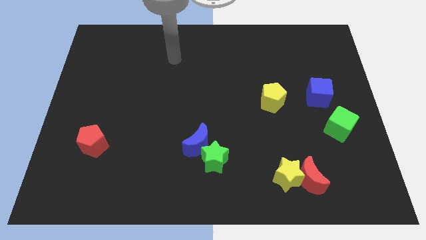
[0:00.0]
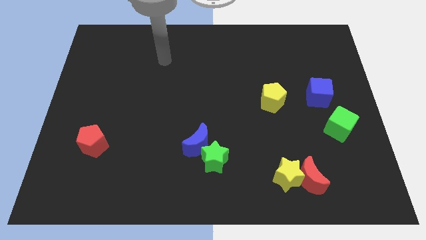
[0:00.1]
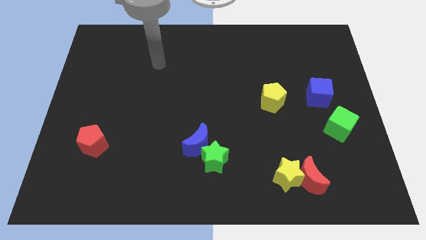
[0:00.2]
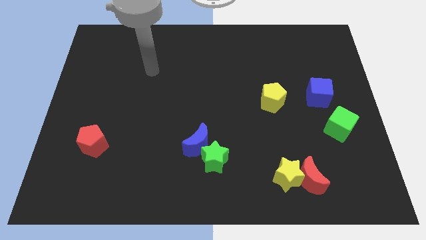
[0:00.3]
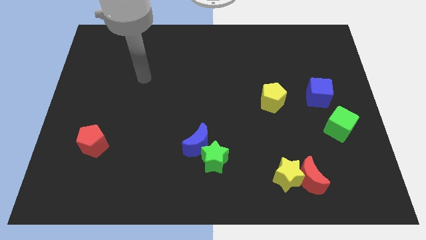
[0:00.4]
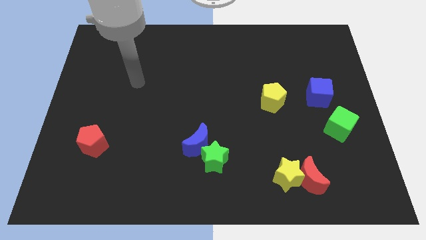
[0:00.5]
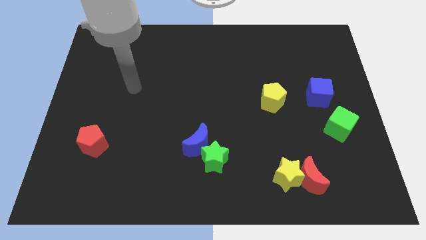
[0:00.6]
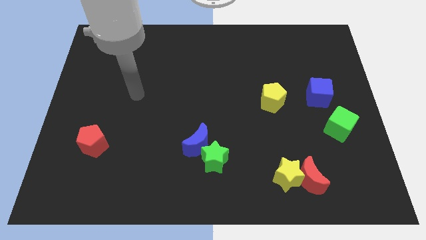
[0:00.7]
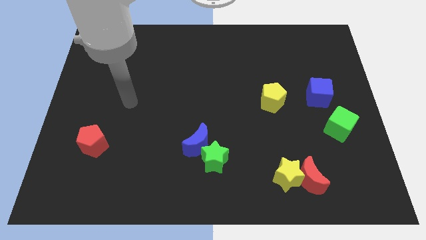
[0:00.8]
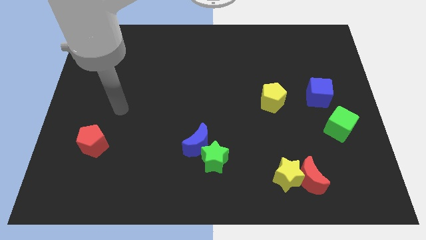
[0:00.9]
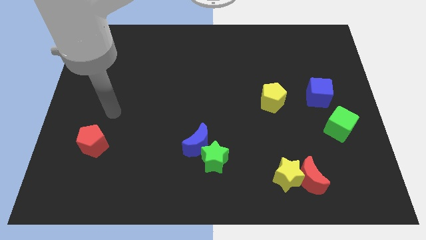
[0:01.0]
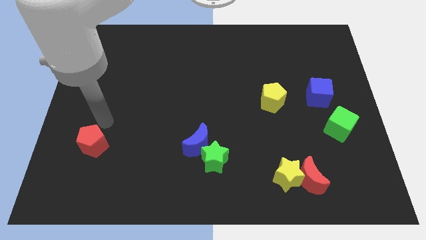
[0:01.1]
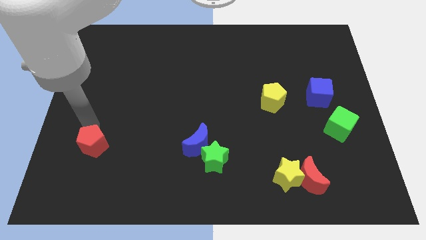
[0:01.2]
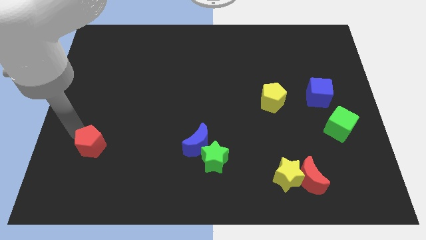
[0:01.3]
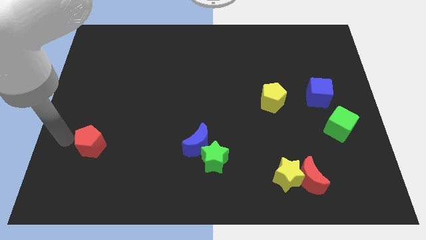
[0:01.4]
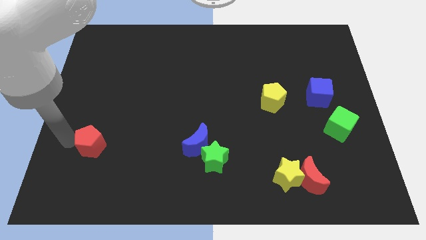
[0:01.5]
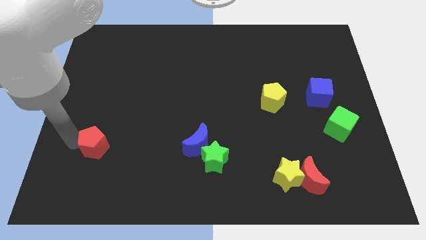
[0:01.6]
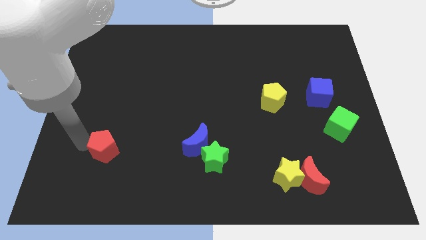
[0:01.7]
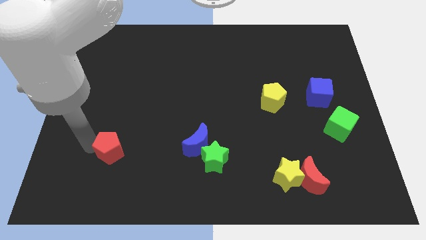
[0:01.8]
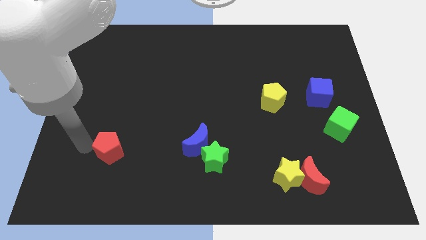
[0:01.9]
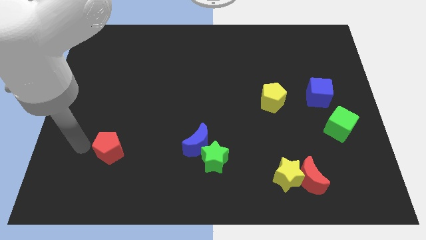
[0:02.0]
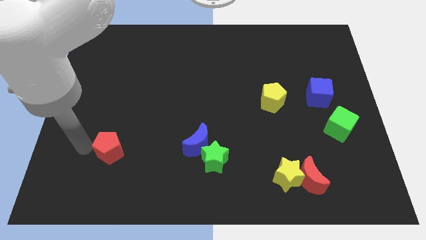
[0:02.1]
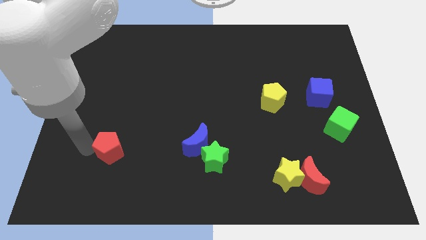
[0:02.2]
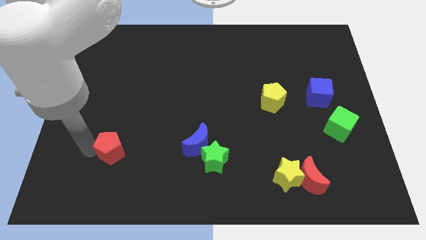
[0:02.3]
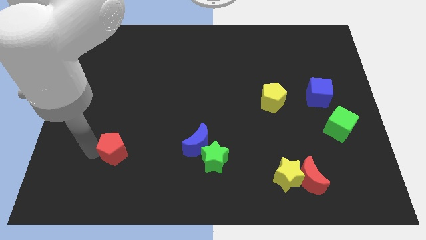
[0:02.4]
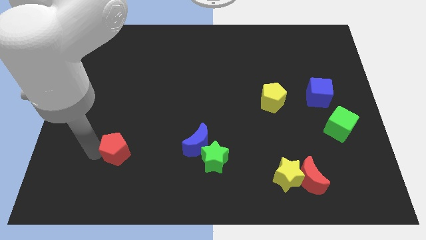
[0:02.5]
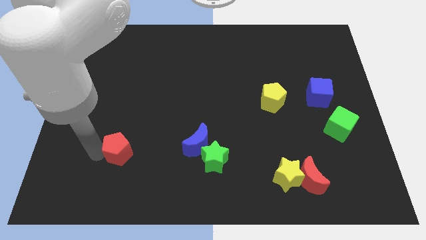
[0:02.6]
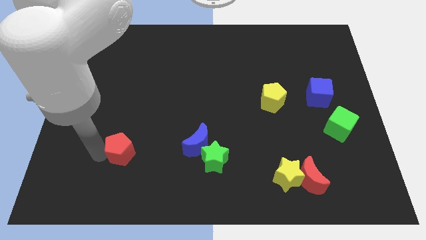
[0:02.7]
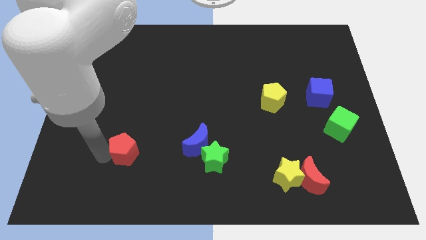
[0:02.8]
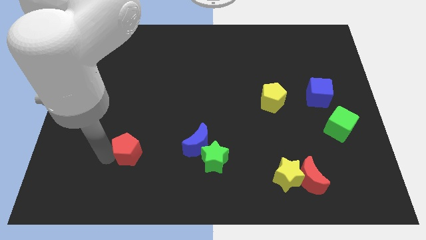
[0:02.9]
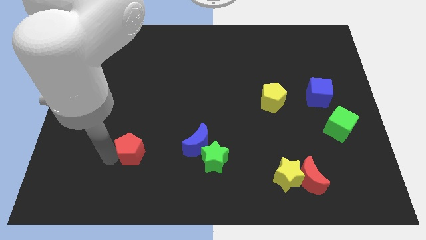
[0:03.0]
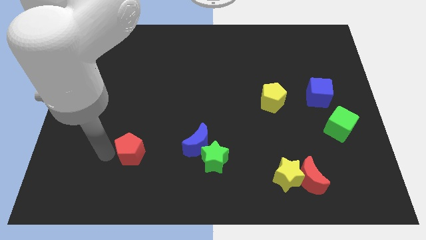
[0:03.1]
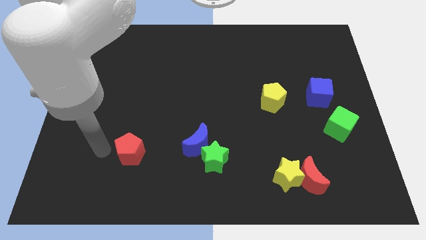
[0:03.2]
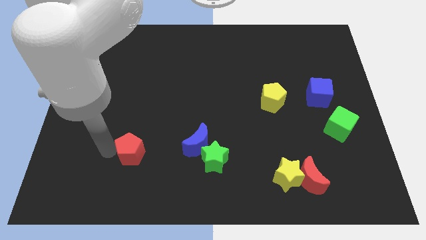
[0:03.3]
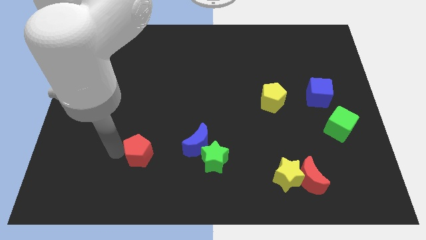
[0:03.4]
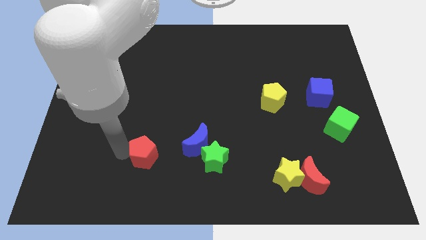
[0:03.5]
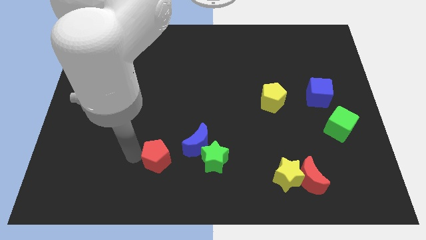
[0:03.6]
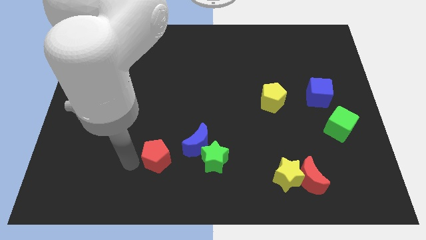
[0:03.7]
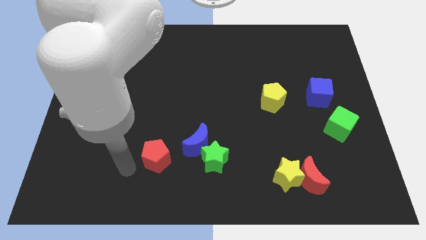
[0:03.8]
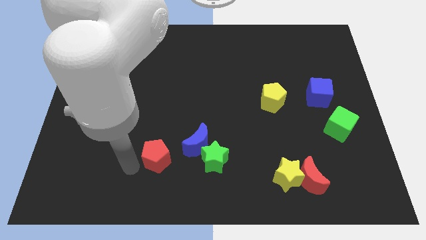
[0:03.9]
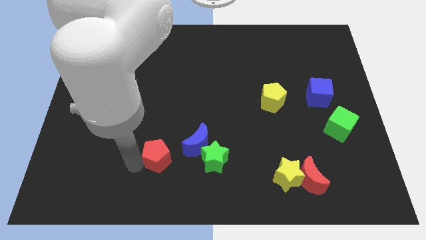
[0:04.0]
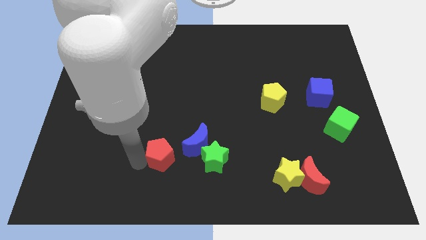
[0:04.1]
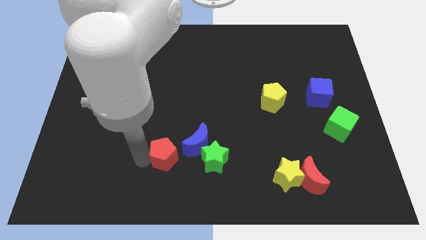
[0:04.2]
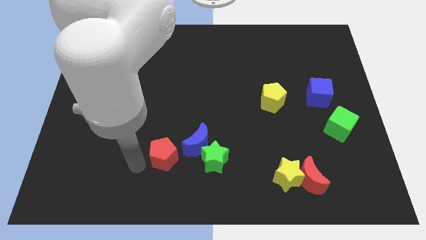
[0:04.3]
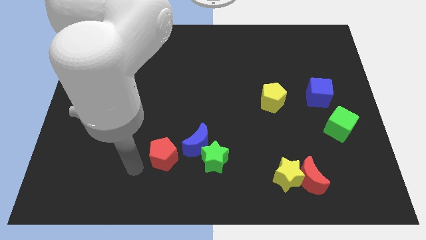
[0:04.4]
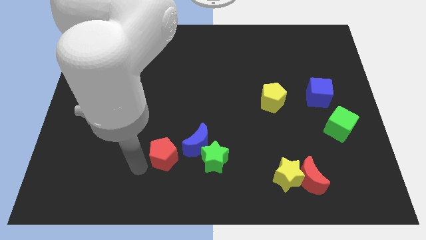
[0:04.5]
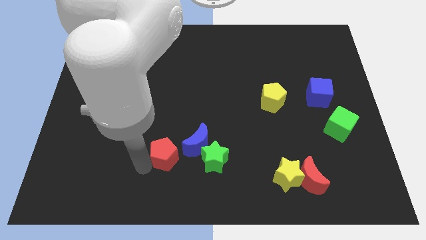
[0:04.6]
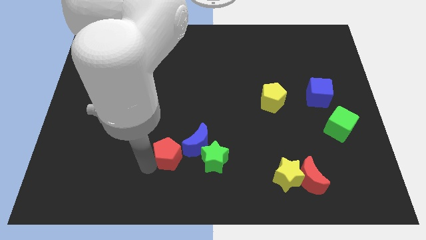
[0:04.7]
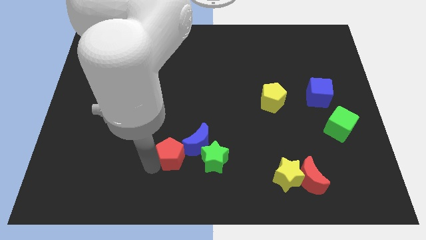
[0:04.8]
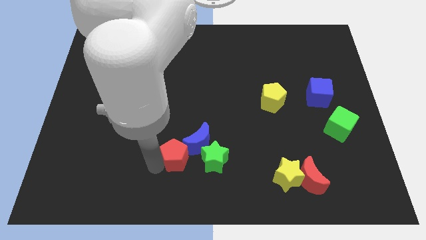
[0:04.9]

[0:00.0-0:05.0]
put the red pentagon close to the blue moon

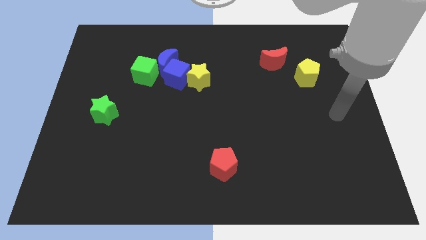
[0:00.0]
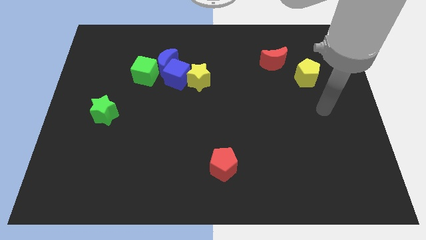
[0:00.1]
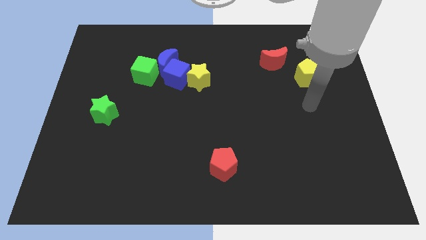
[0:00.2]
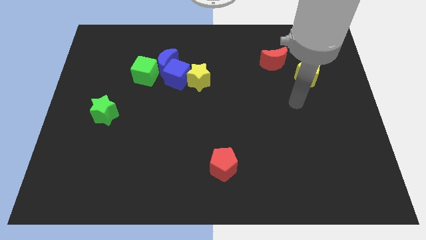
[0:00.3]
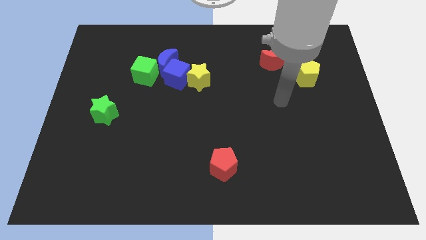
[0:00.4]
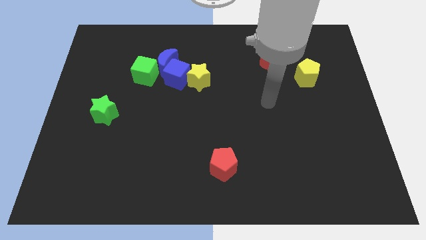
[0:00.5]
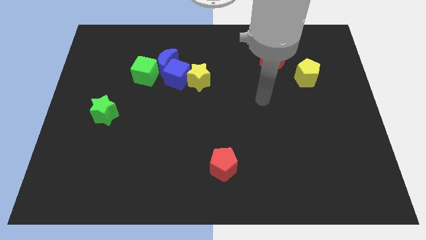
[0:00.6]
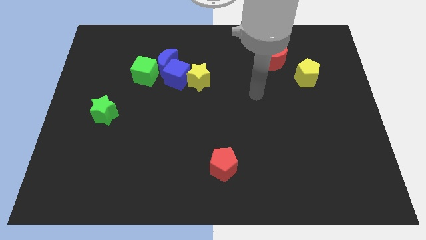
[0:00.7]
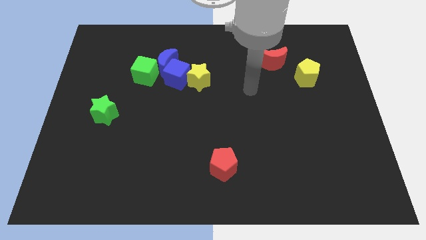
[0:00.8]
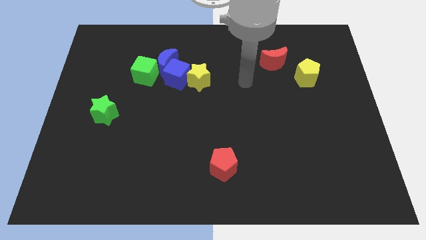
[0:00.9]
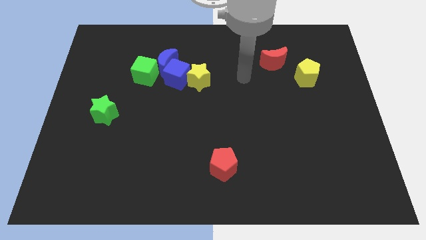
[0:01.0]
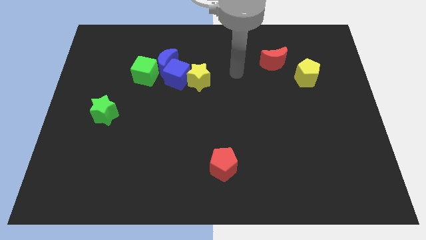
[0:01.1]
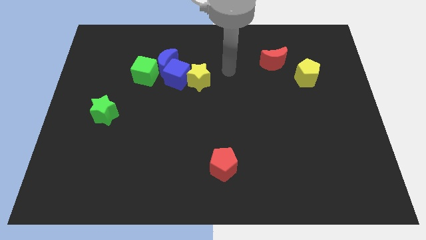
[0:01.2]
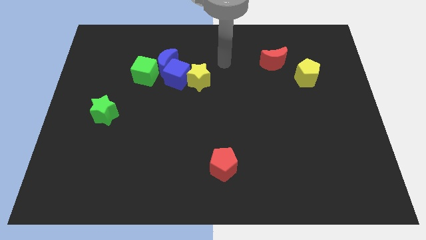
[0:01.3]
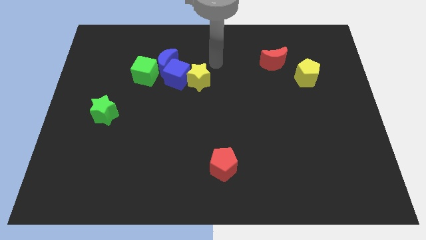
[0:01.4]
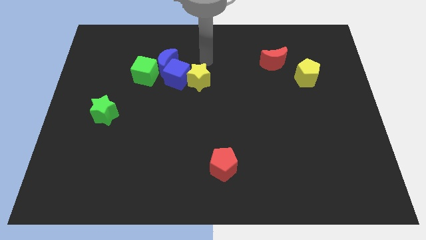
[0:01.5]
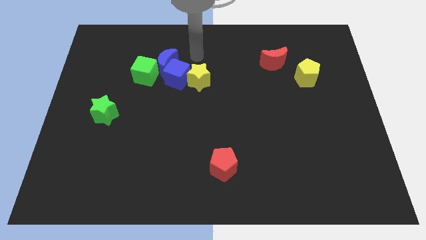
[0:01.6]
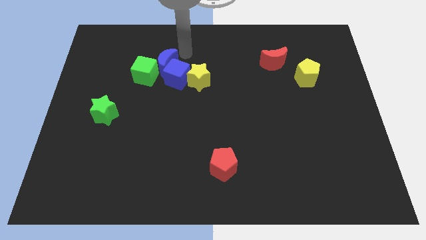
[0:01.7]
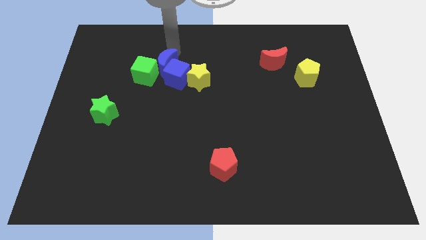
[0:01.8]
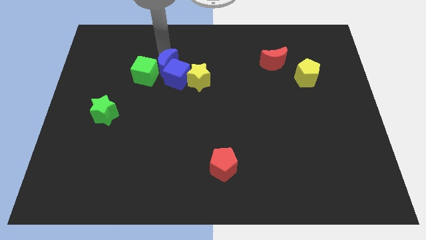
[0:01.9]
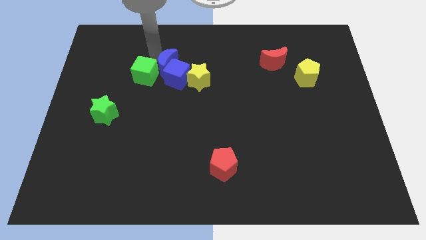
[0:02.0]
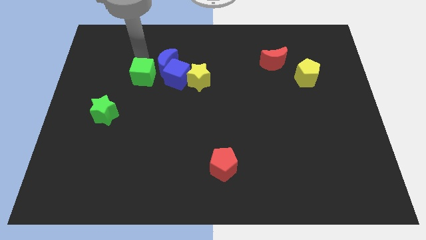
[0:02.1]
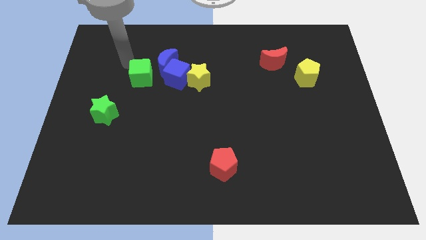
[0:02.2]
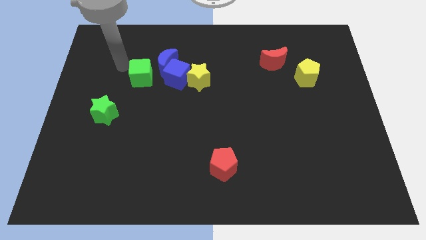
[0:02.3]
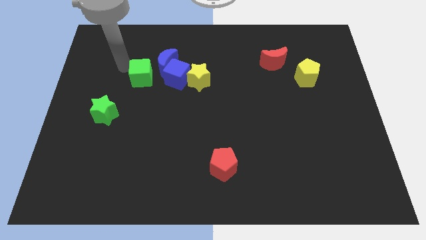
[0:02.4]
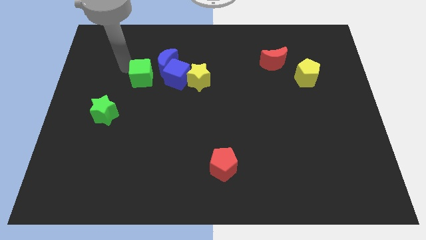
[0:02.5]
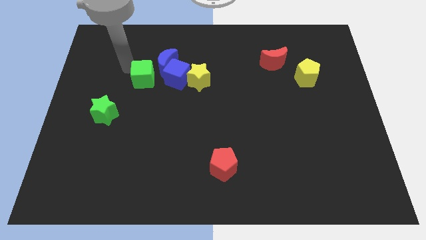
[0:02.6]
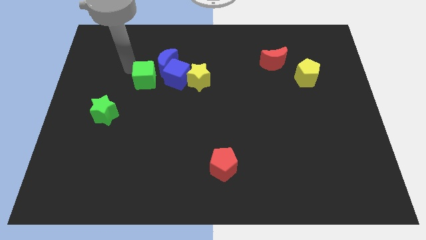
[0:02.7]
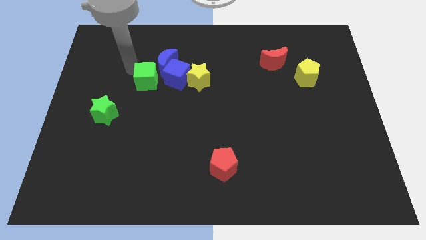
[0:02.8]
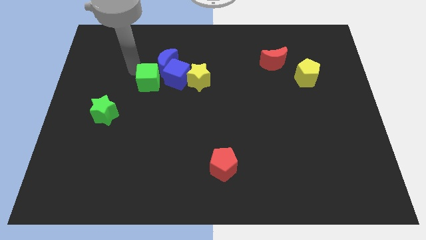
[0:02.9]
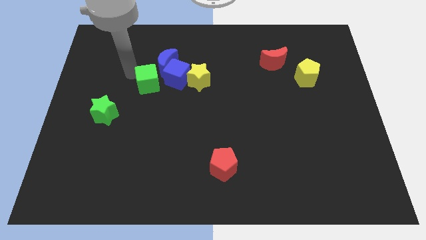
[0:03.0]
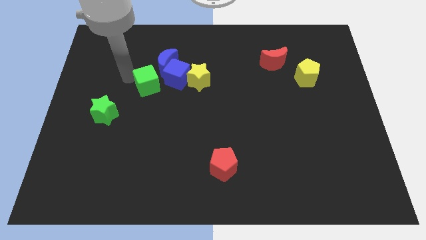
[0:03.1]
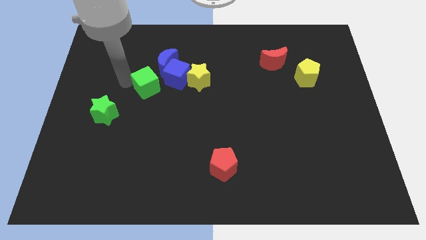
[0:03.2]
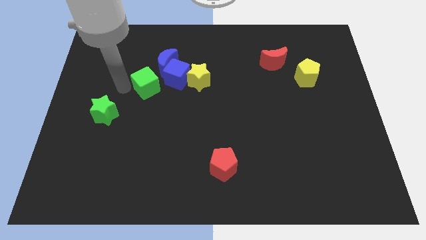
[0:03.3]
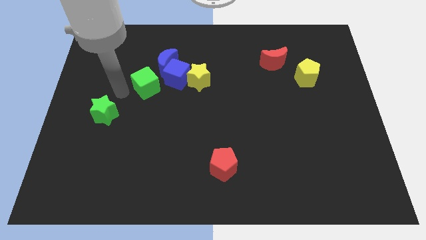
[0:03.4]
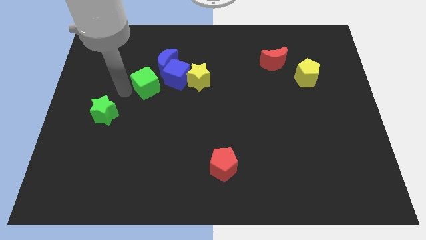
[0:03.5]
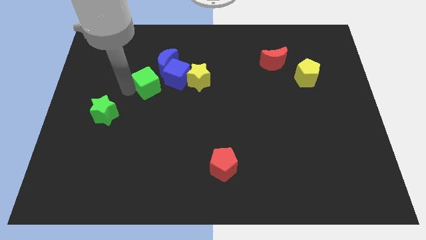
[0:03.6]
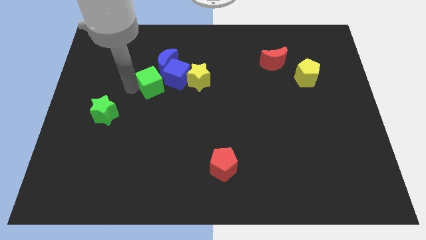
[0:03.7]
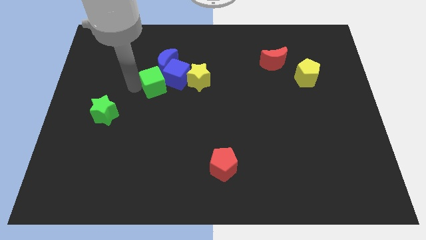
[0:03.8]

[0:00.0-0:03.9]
push the green cube towards the blue cube
